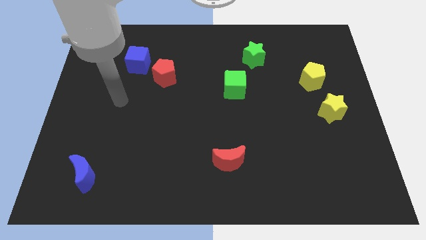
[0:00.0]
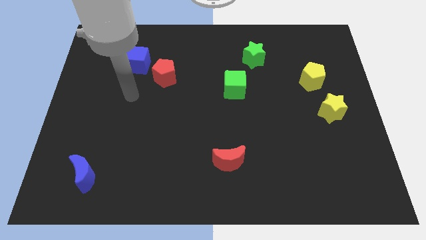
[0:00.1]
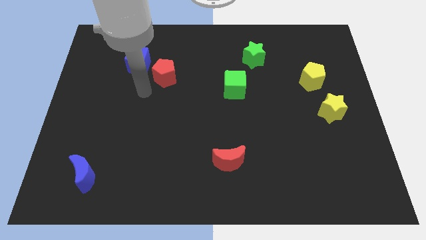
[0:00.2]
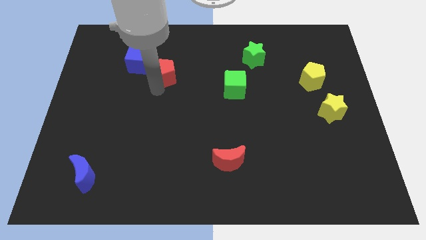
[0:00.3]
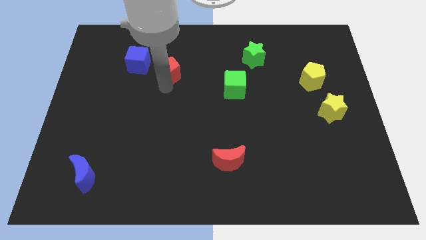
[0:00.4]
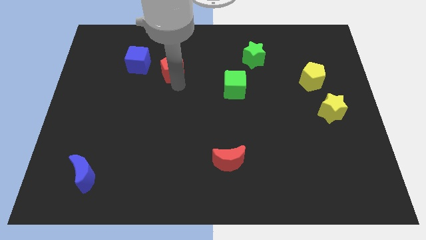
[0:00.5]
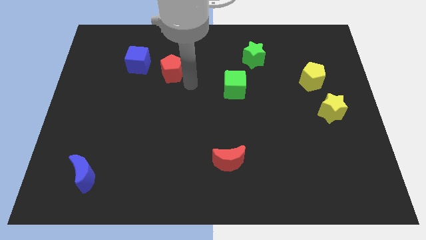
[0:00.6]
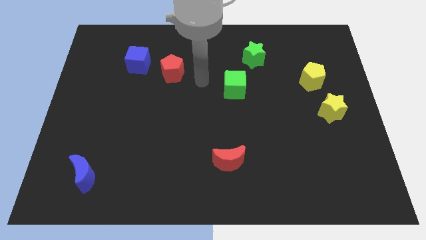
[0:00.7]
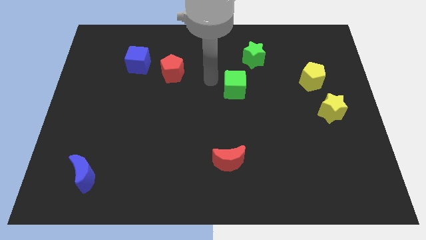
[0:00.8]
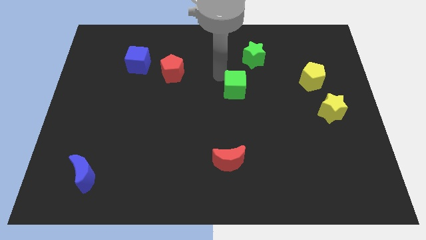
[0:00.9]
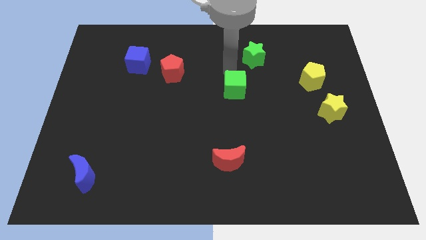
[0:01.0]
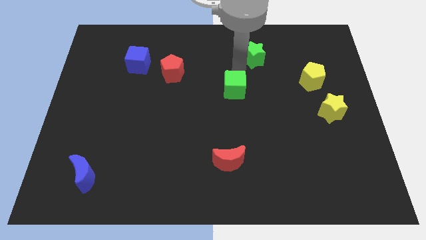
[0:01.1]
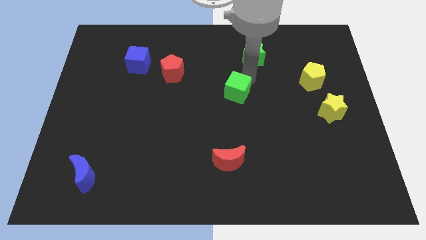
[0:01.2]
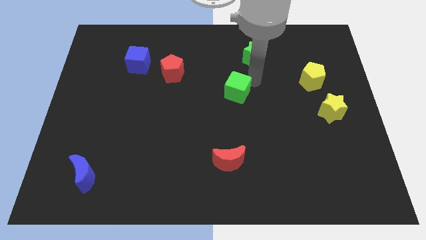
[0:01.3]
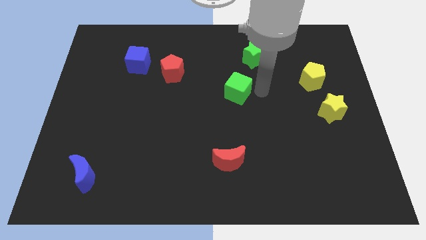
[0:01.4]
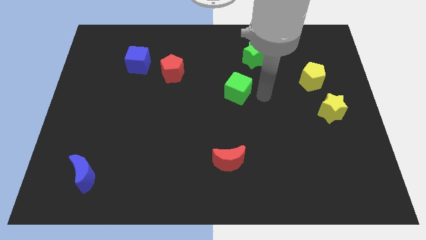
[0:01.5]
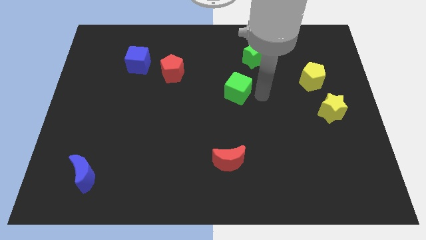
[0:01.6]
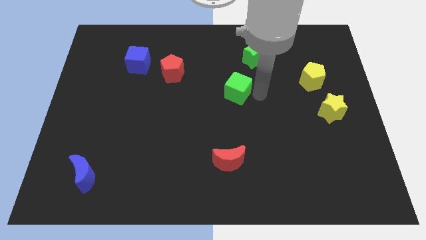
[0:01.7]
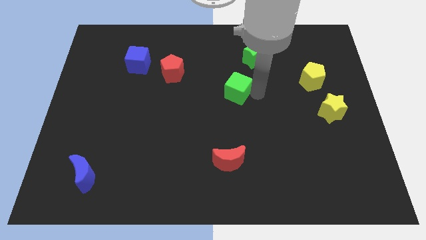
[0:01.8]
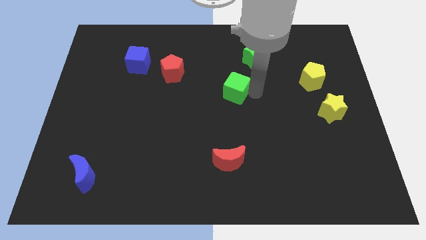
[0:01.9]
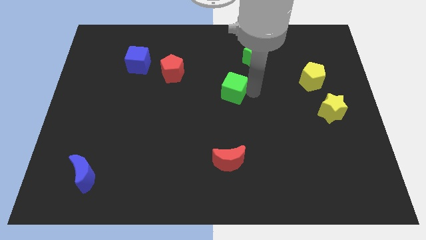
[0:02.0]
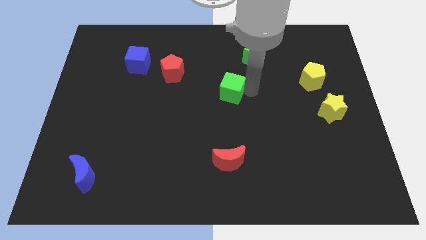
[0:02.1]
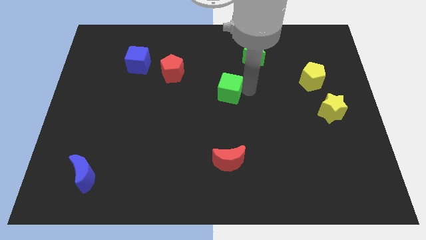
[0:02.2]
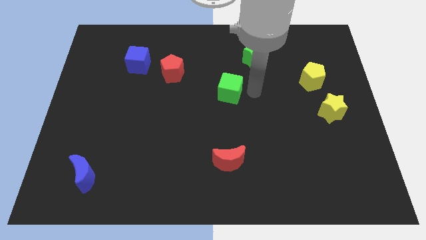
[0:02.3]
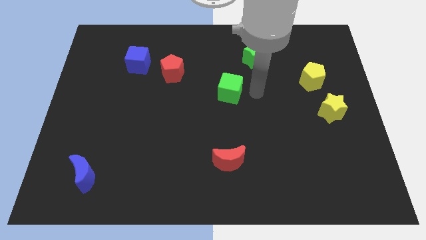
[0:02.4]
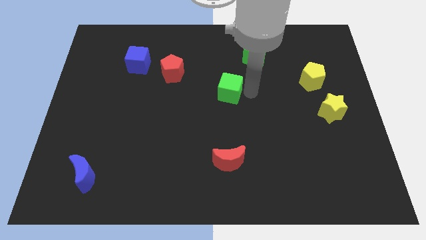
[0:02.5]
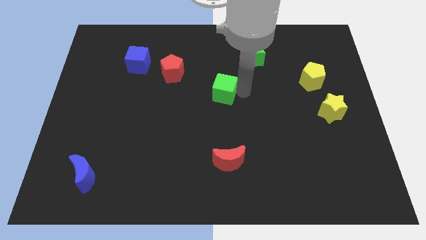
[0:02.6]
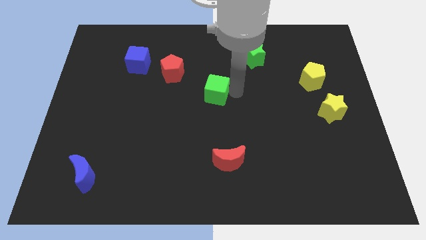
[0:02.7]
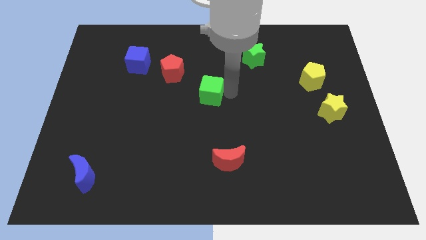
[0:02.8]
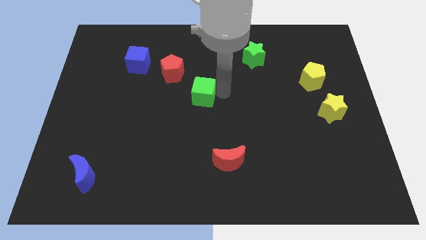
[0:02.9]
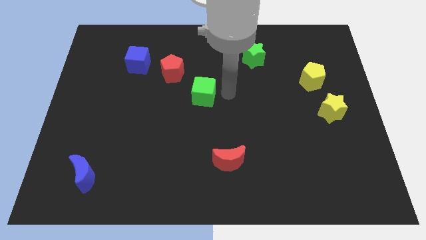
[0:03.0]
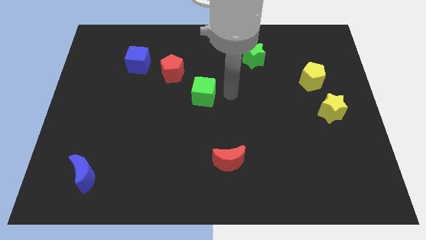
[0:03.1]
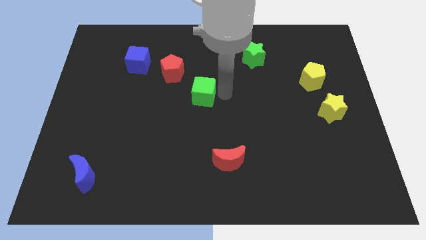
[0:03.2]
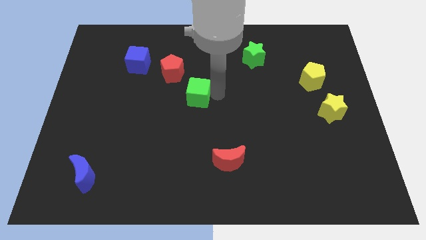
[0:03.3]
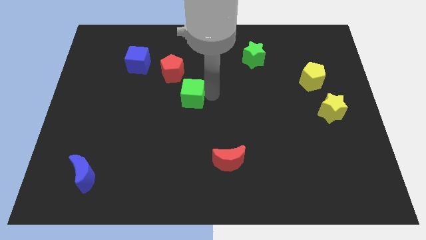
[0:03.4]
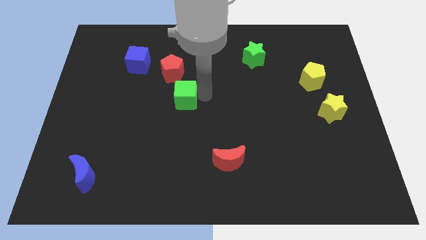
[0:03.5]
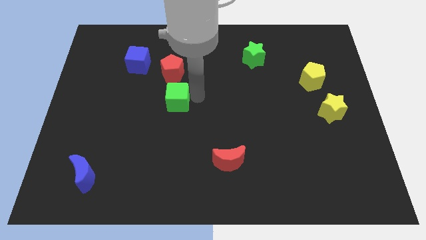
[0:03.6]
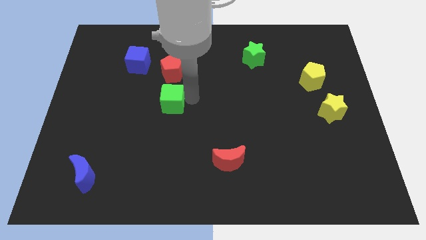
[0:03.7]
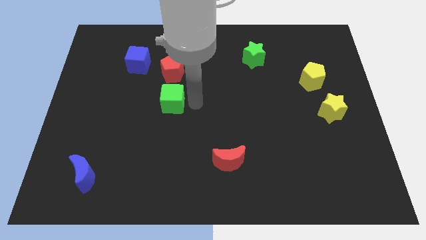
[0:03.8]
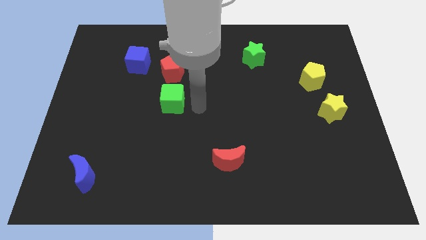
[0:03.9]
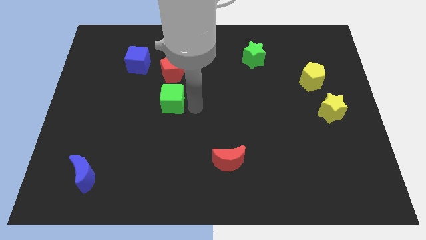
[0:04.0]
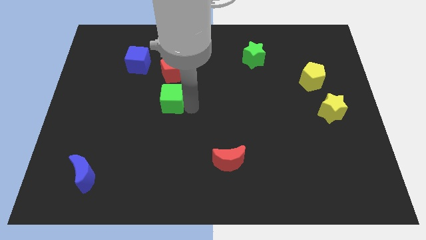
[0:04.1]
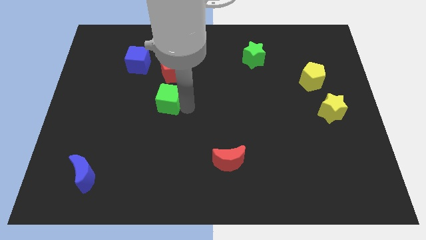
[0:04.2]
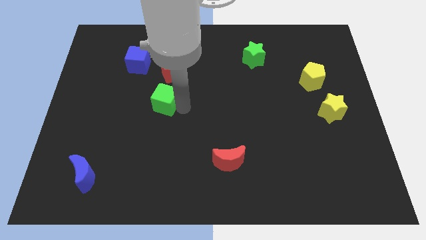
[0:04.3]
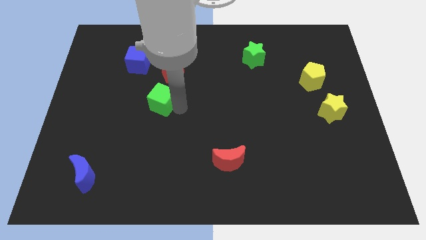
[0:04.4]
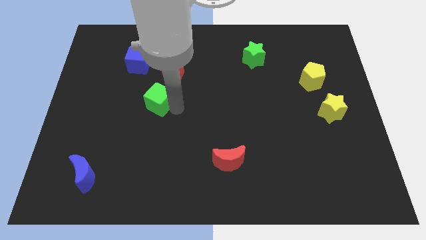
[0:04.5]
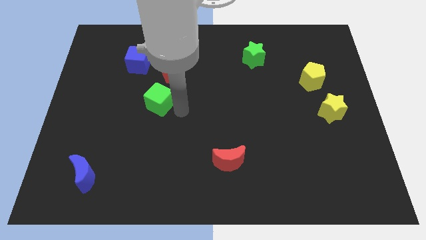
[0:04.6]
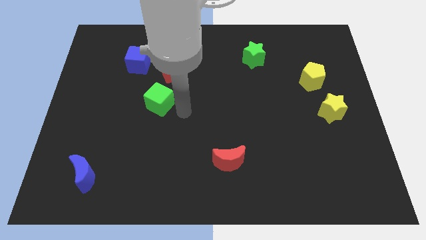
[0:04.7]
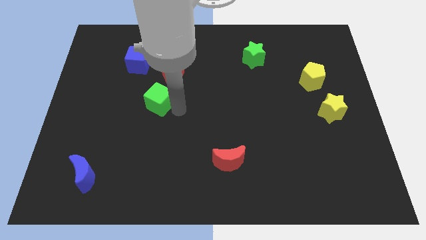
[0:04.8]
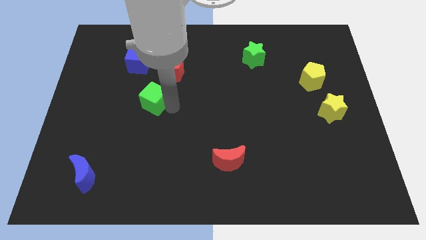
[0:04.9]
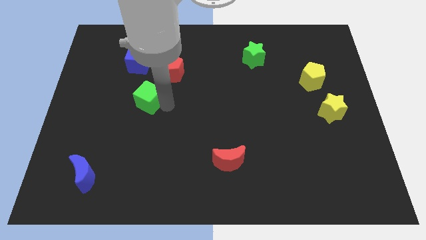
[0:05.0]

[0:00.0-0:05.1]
slide the green cube left

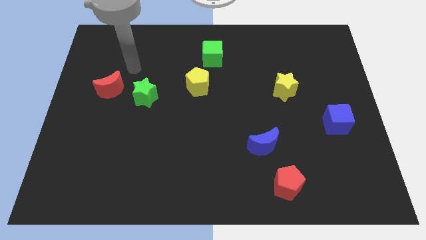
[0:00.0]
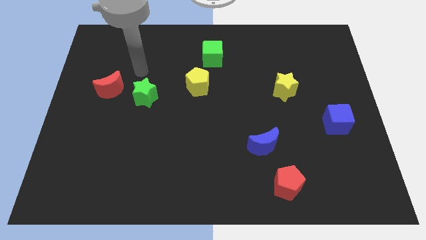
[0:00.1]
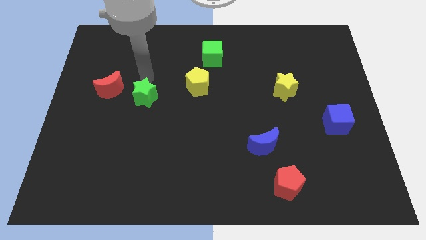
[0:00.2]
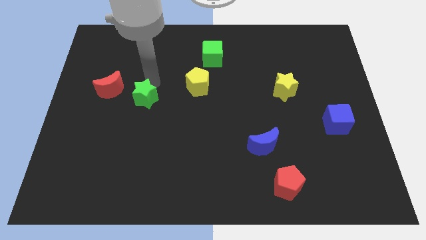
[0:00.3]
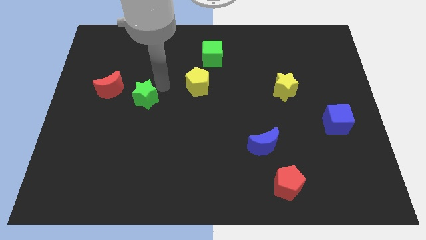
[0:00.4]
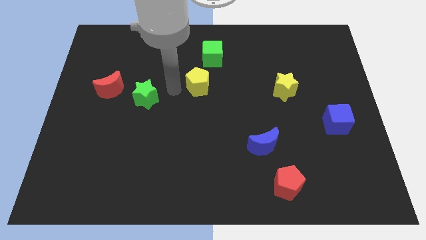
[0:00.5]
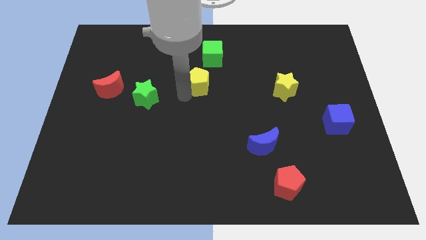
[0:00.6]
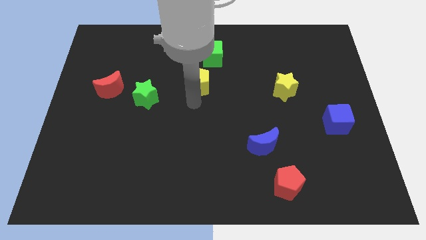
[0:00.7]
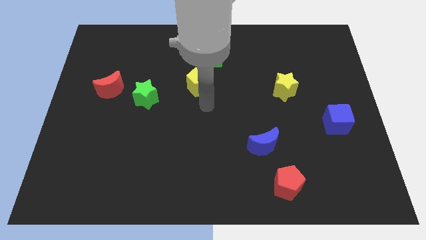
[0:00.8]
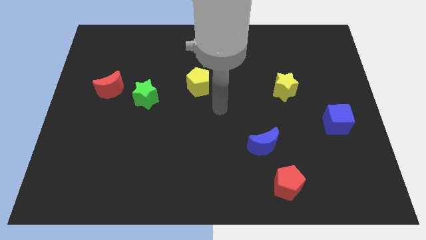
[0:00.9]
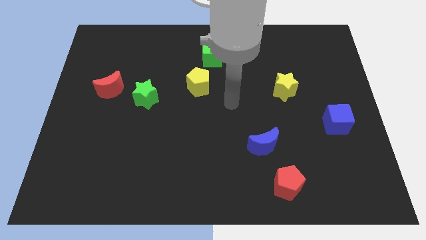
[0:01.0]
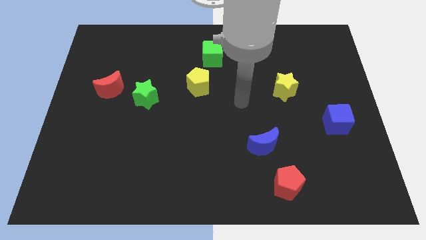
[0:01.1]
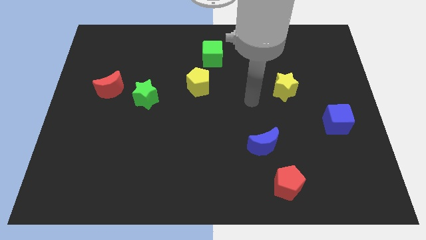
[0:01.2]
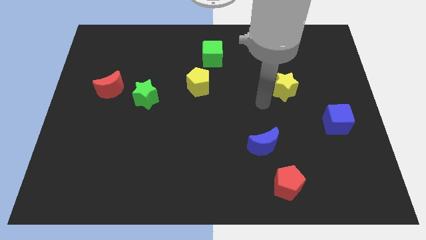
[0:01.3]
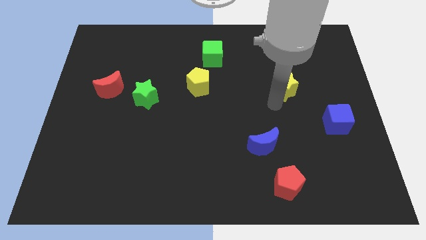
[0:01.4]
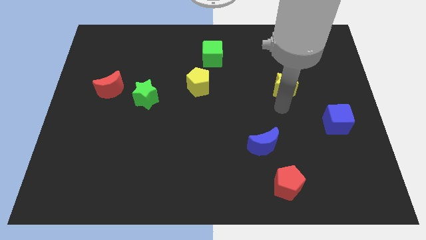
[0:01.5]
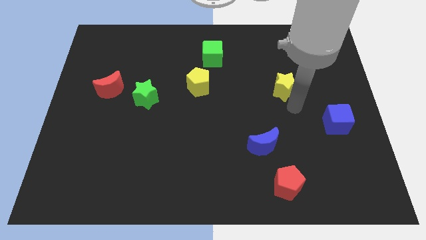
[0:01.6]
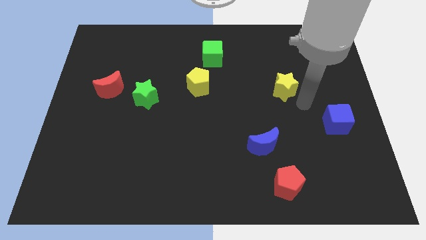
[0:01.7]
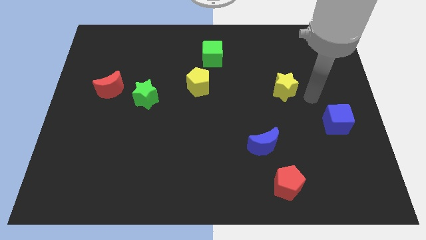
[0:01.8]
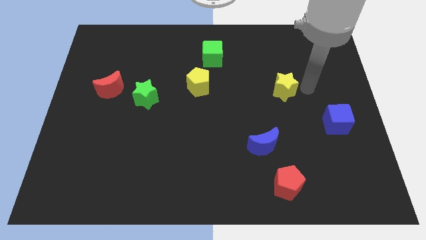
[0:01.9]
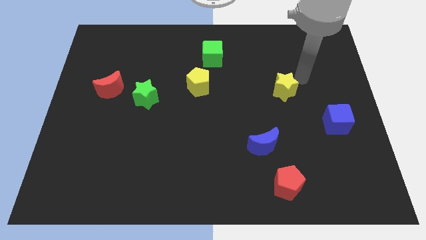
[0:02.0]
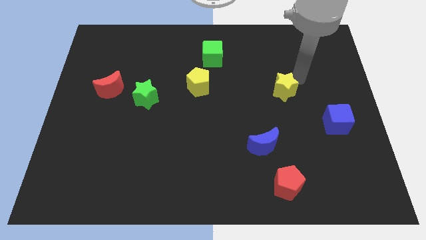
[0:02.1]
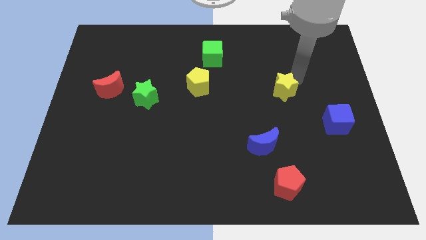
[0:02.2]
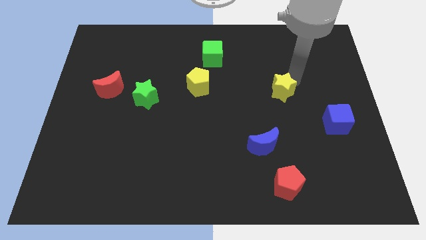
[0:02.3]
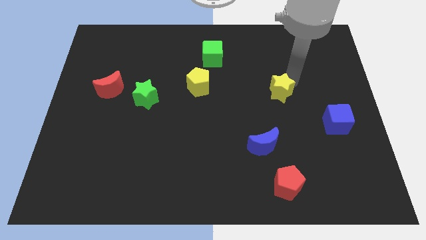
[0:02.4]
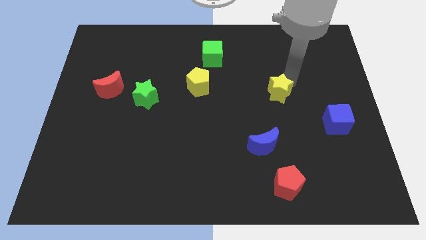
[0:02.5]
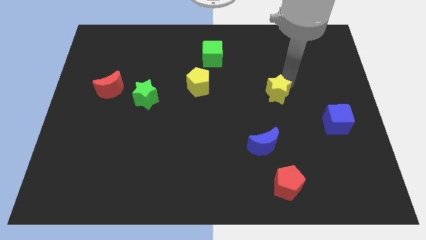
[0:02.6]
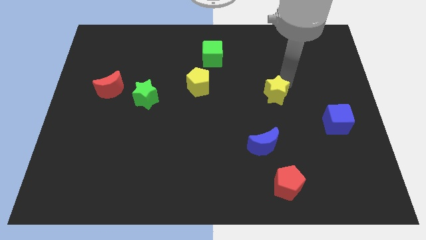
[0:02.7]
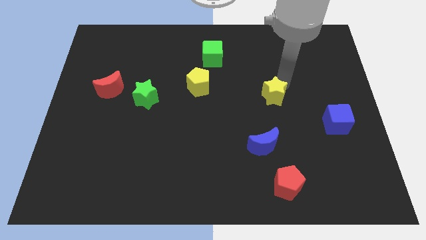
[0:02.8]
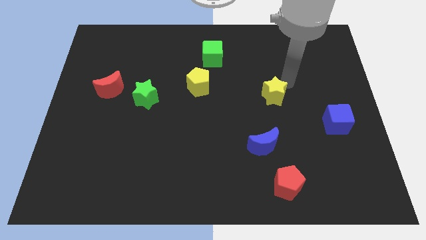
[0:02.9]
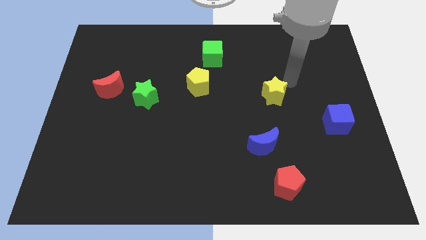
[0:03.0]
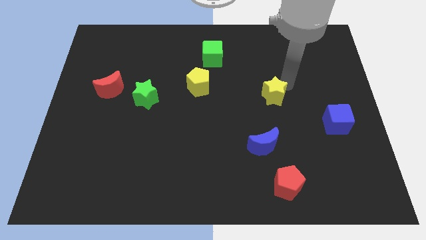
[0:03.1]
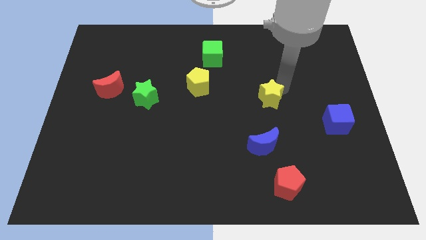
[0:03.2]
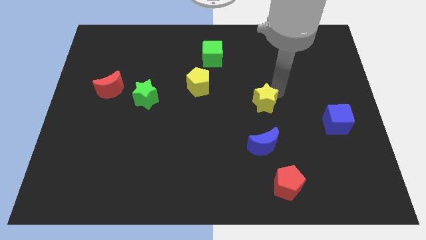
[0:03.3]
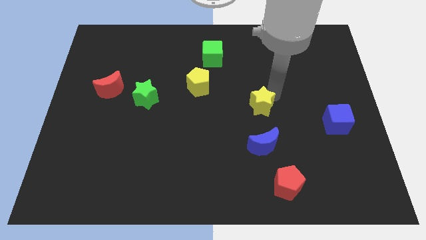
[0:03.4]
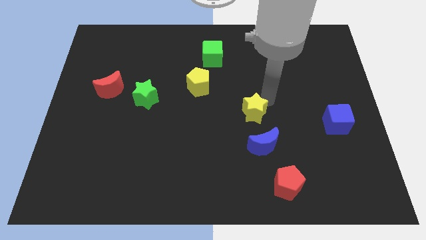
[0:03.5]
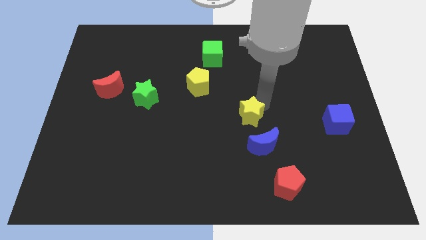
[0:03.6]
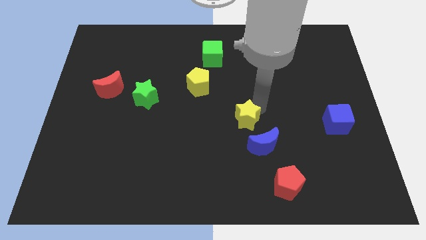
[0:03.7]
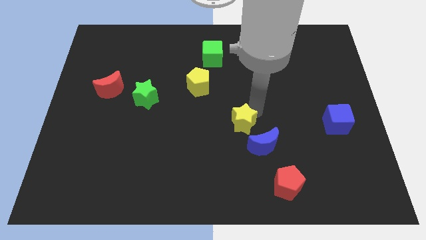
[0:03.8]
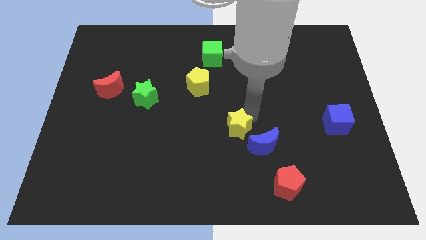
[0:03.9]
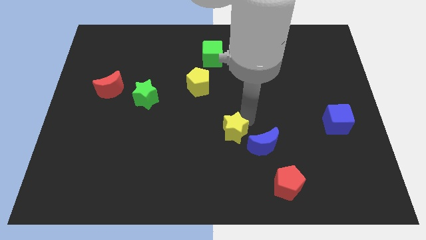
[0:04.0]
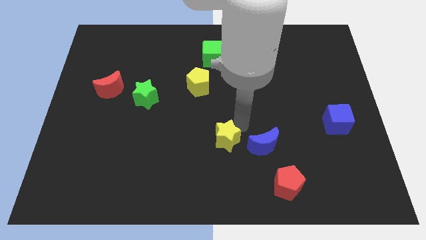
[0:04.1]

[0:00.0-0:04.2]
move the yellow star downwards and to the left diagonally
